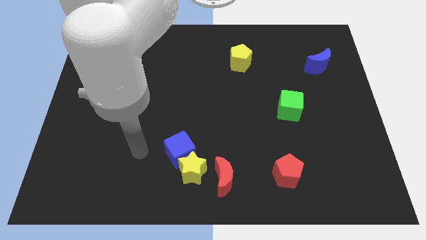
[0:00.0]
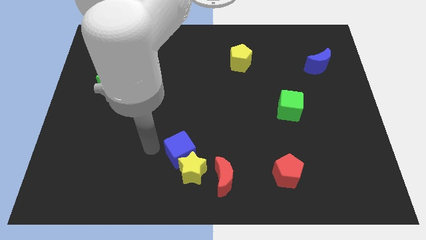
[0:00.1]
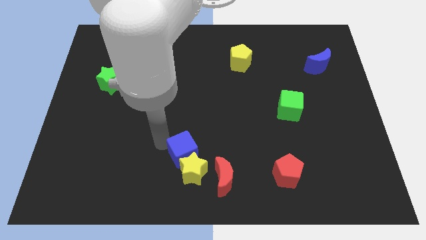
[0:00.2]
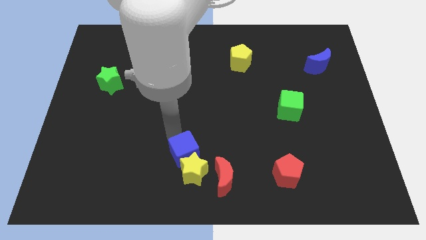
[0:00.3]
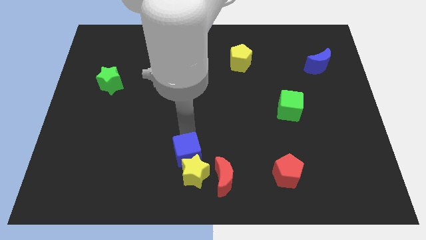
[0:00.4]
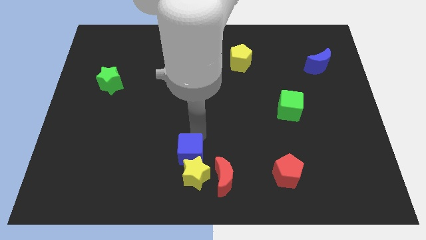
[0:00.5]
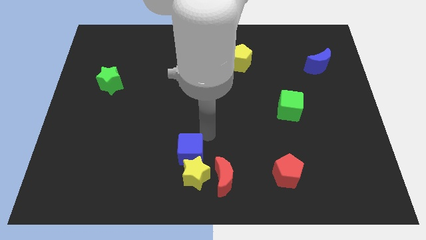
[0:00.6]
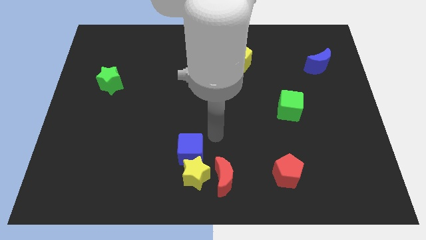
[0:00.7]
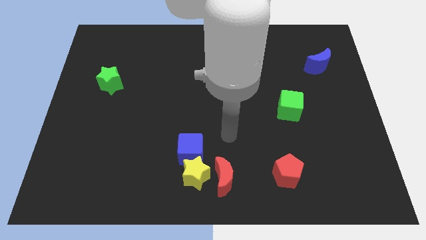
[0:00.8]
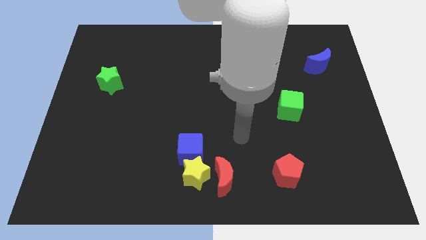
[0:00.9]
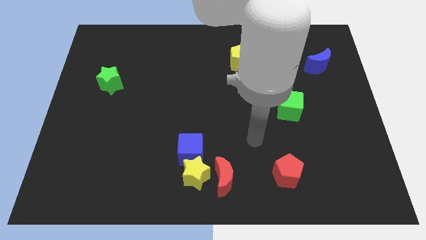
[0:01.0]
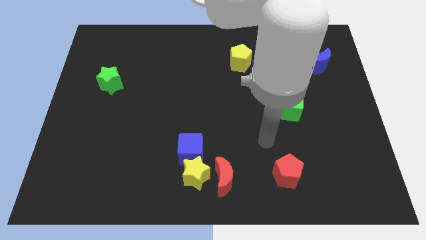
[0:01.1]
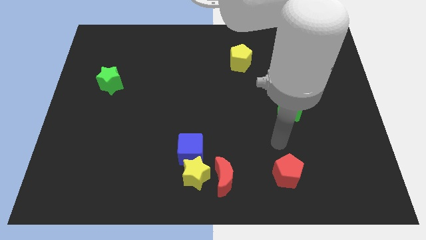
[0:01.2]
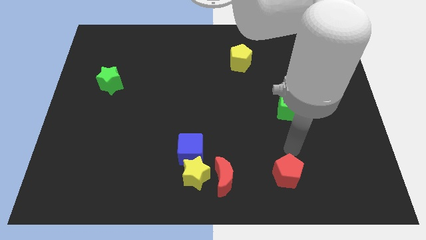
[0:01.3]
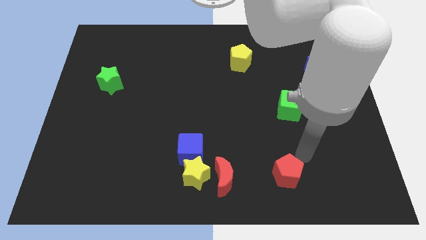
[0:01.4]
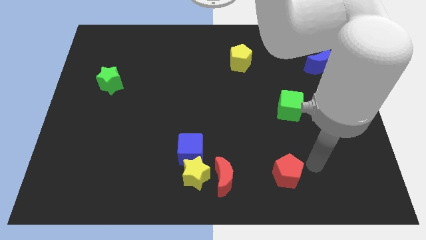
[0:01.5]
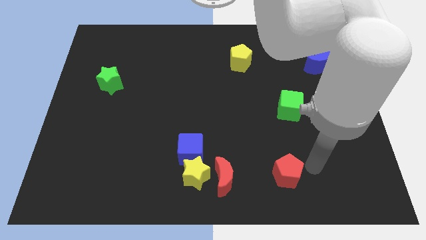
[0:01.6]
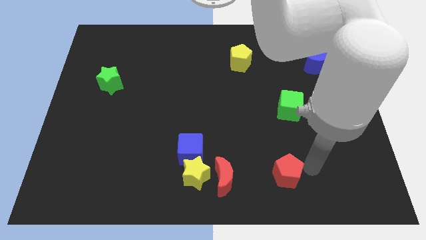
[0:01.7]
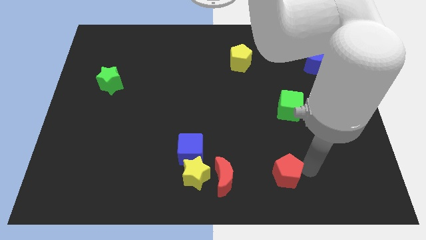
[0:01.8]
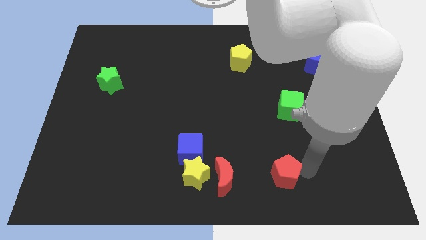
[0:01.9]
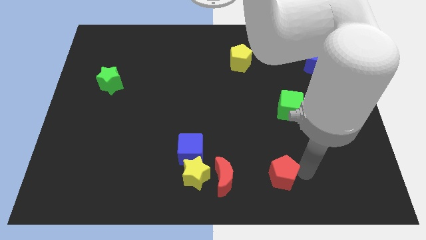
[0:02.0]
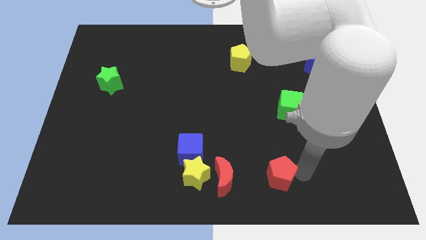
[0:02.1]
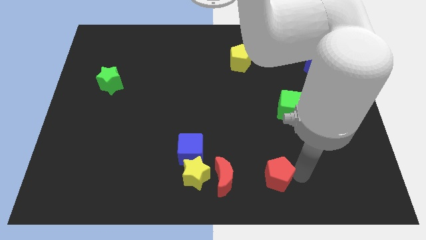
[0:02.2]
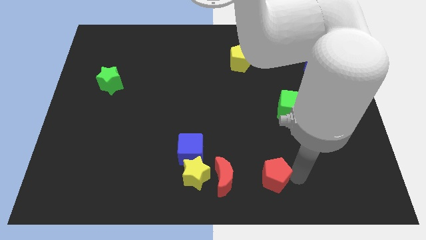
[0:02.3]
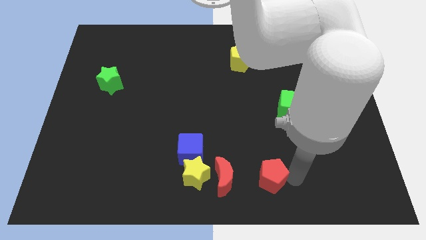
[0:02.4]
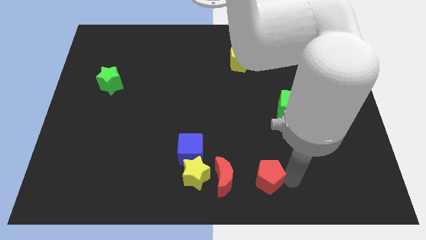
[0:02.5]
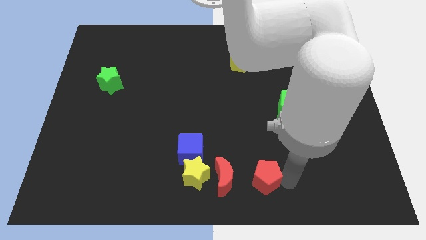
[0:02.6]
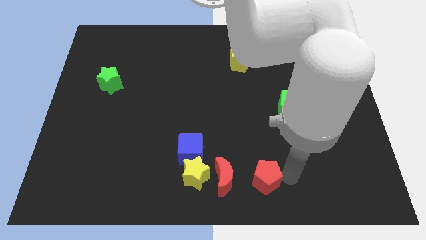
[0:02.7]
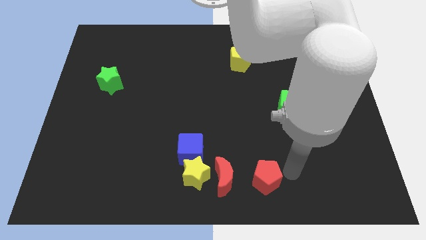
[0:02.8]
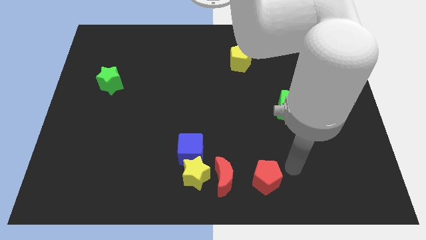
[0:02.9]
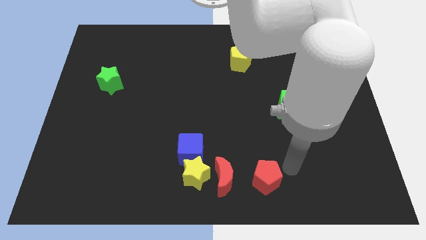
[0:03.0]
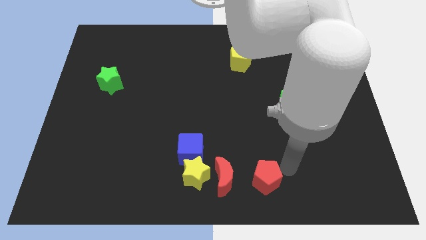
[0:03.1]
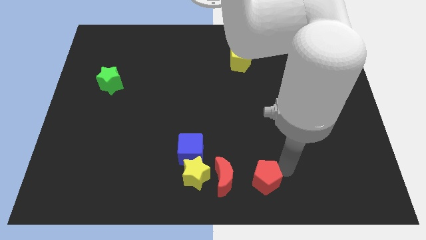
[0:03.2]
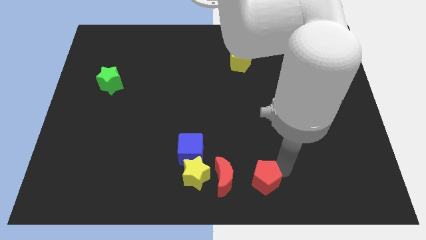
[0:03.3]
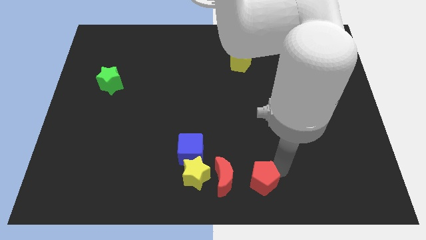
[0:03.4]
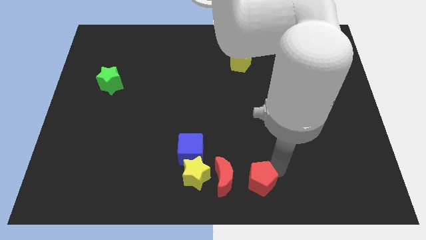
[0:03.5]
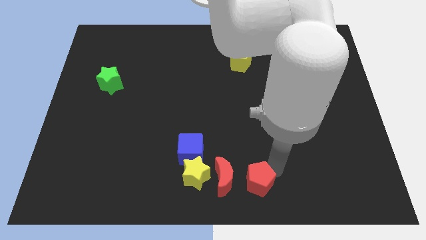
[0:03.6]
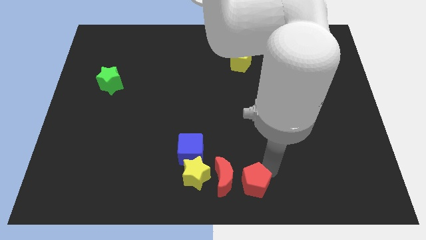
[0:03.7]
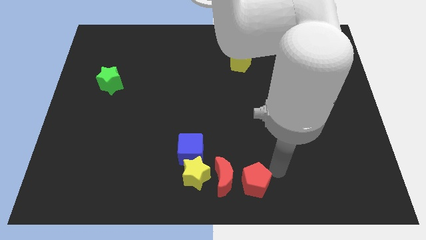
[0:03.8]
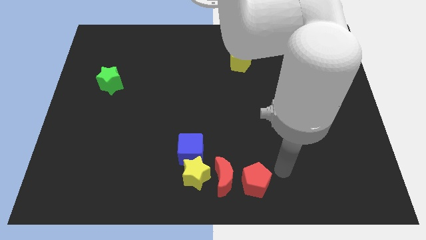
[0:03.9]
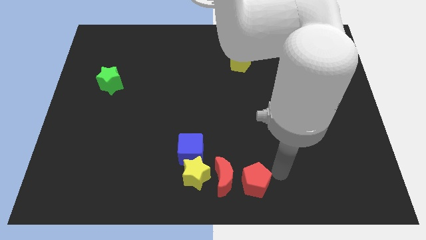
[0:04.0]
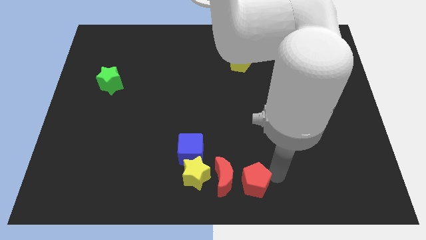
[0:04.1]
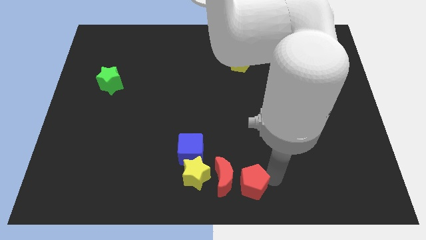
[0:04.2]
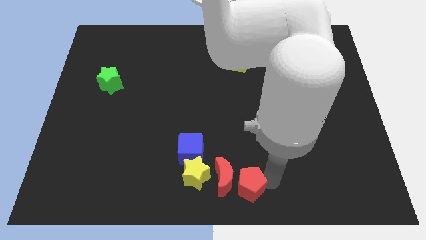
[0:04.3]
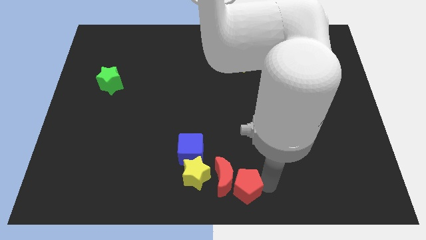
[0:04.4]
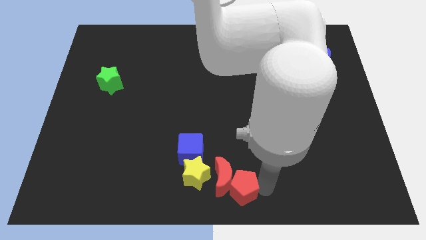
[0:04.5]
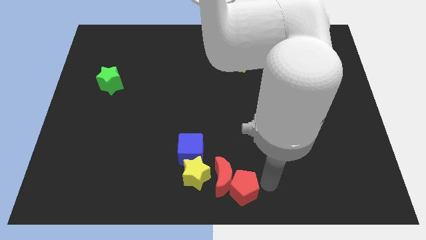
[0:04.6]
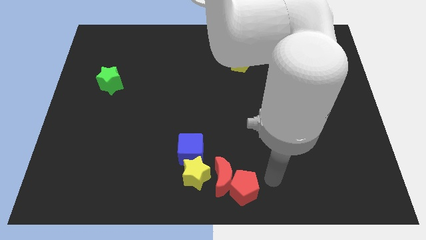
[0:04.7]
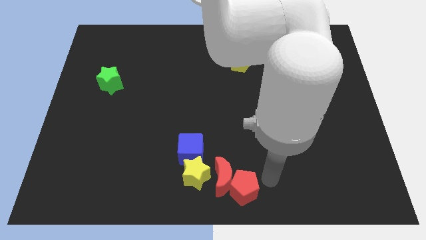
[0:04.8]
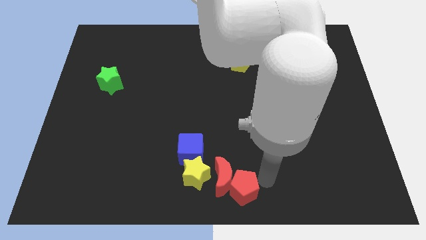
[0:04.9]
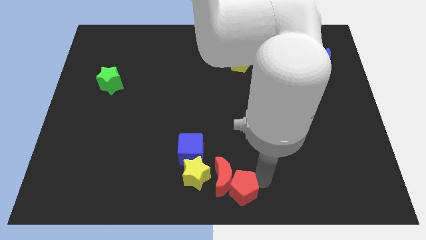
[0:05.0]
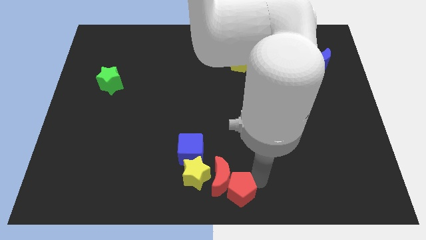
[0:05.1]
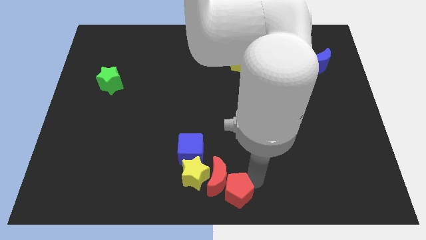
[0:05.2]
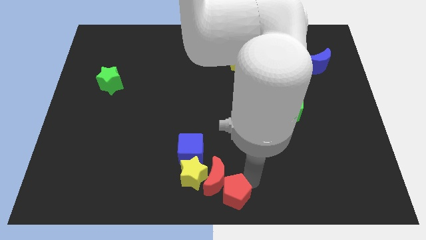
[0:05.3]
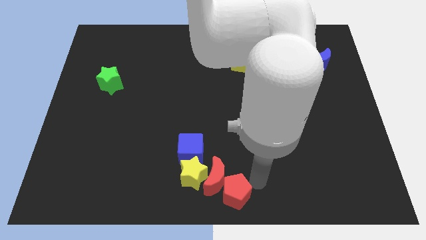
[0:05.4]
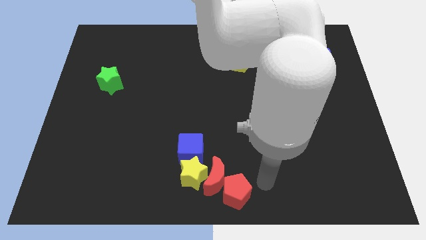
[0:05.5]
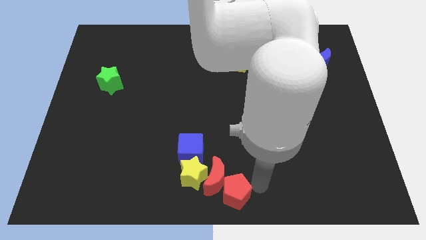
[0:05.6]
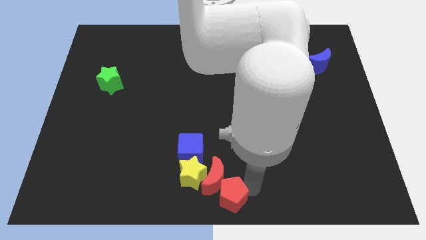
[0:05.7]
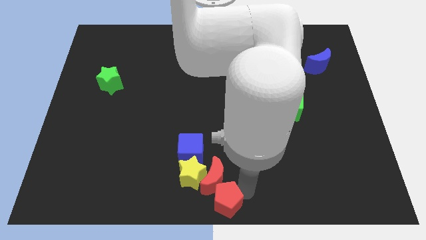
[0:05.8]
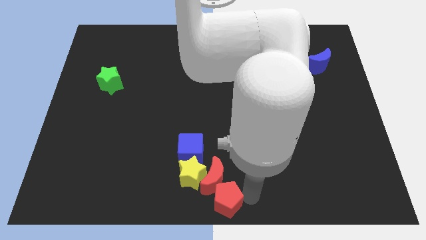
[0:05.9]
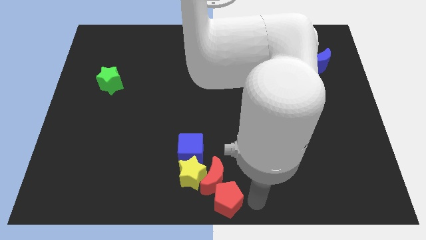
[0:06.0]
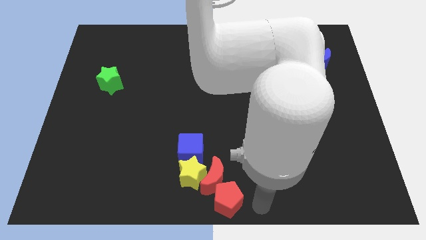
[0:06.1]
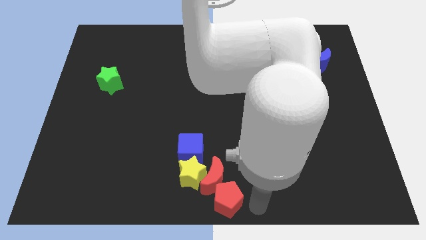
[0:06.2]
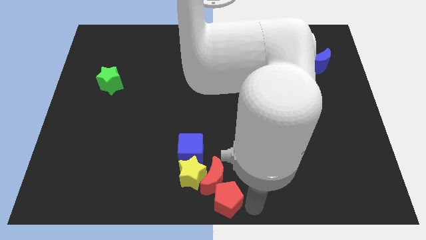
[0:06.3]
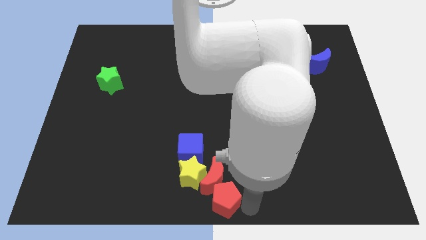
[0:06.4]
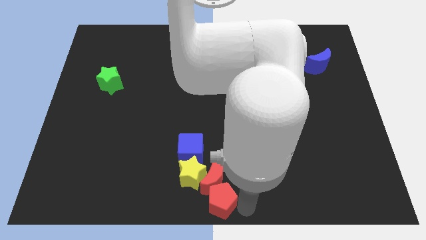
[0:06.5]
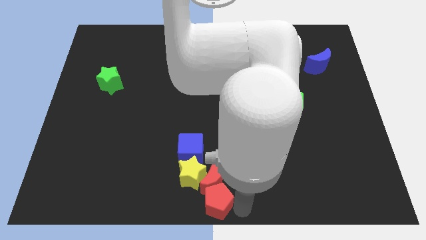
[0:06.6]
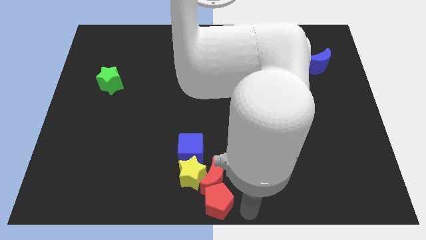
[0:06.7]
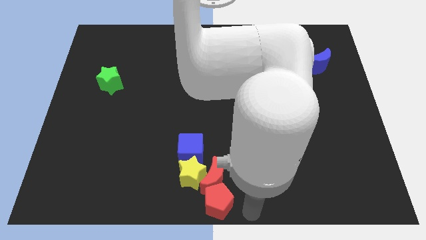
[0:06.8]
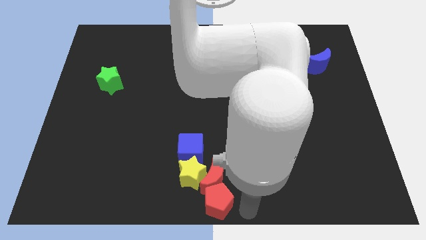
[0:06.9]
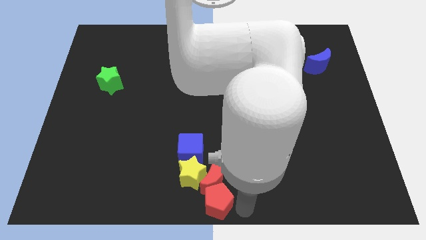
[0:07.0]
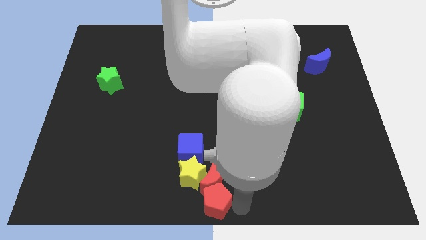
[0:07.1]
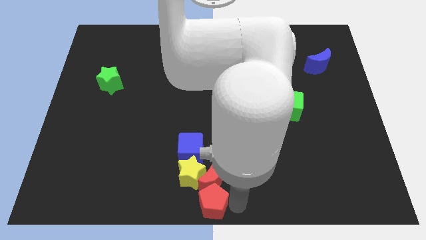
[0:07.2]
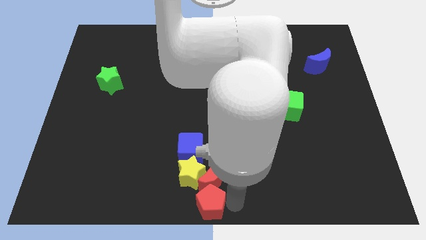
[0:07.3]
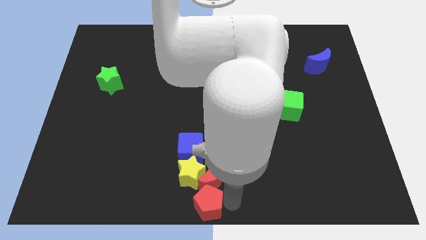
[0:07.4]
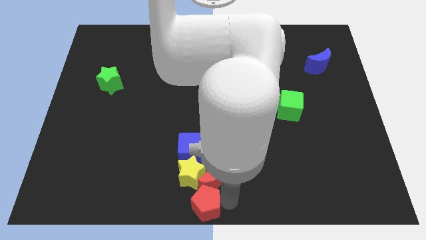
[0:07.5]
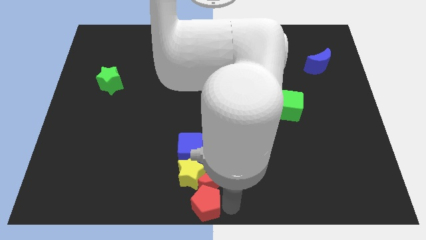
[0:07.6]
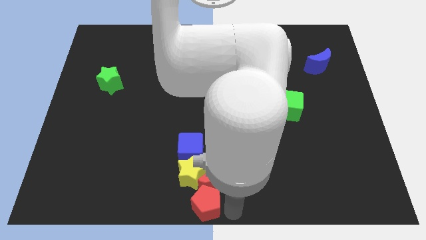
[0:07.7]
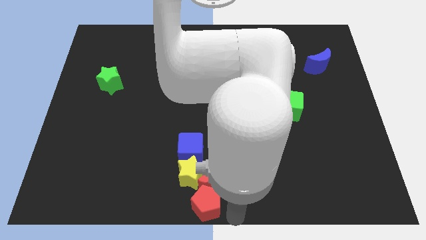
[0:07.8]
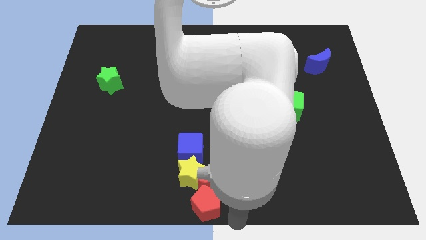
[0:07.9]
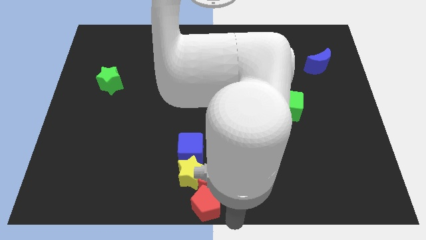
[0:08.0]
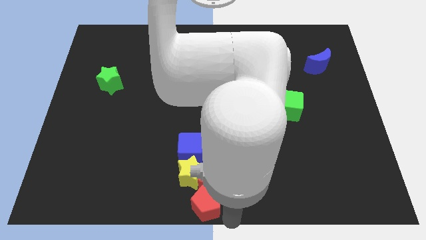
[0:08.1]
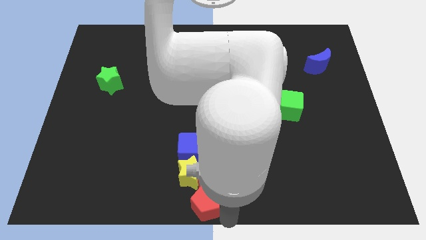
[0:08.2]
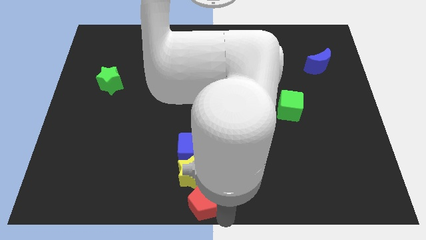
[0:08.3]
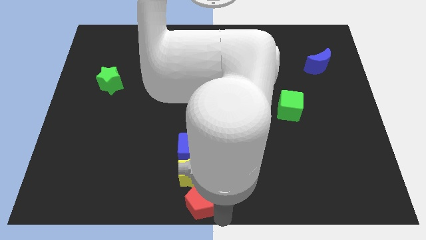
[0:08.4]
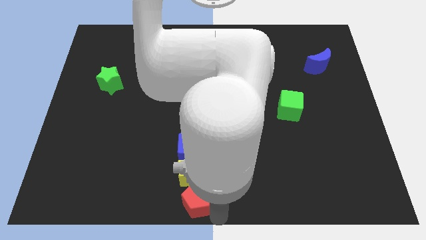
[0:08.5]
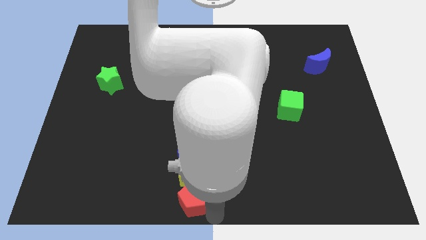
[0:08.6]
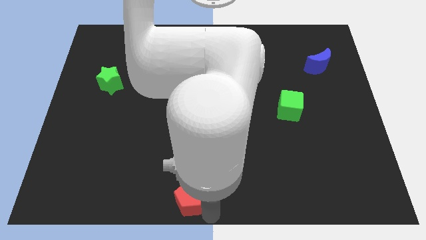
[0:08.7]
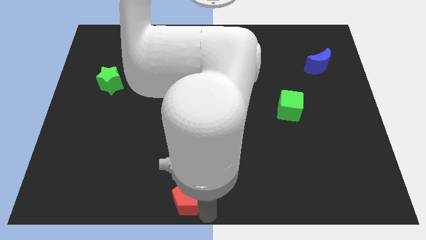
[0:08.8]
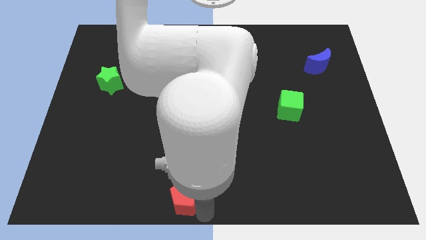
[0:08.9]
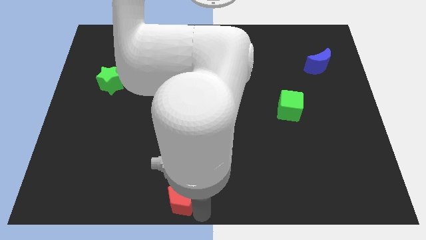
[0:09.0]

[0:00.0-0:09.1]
slide the red pentagon left
